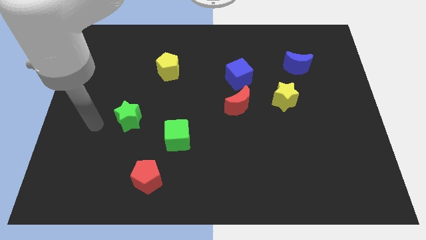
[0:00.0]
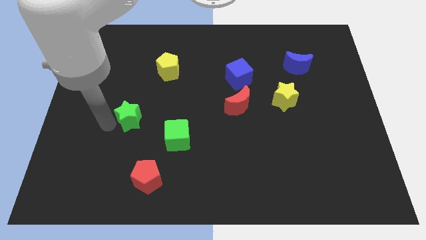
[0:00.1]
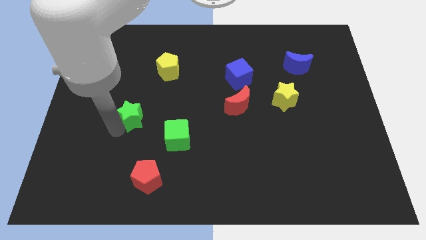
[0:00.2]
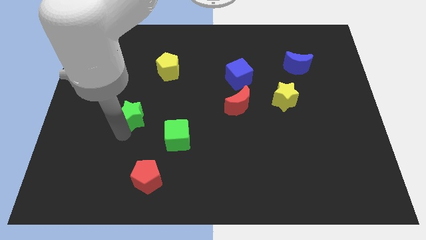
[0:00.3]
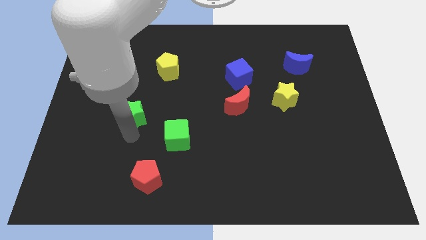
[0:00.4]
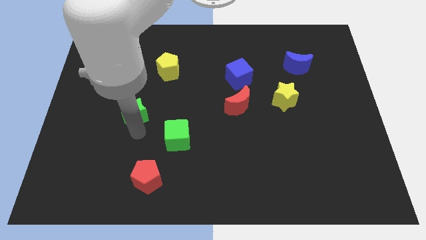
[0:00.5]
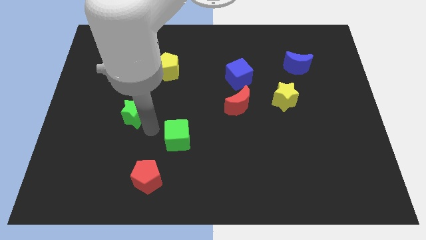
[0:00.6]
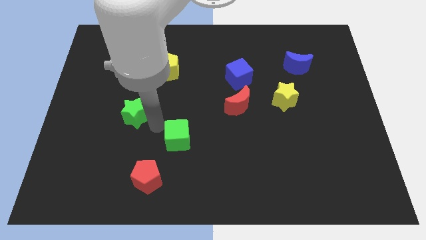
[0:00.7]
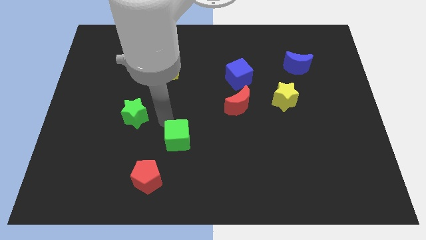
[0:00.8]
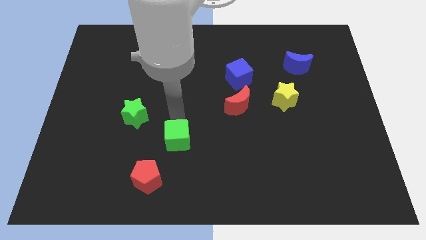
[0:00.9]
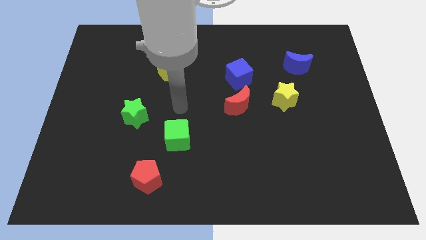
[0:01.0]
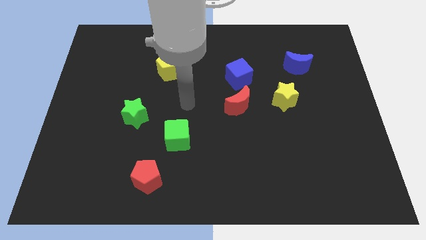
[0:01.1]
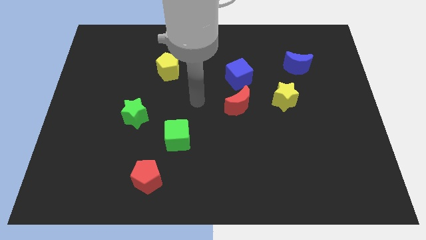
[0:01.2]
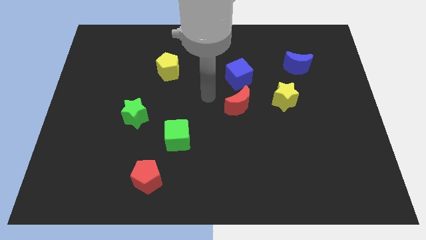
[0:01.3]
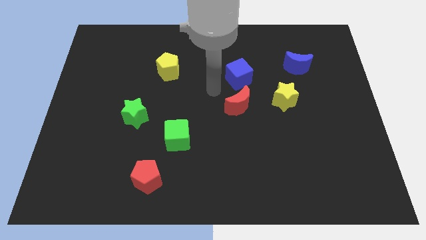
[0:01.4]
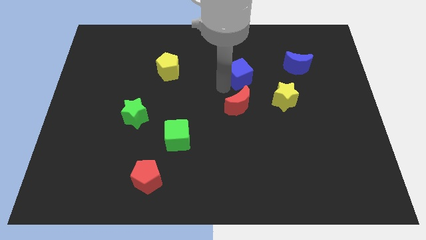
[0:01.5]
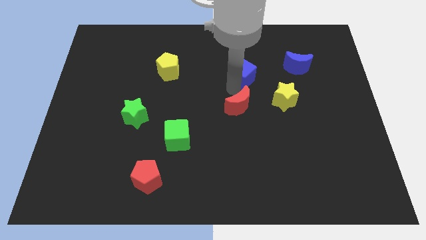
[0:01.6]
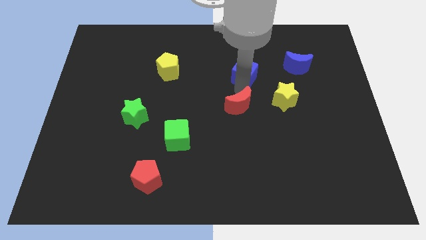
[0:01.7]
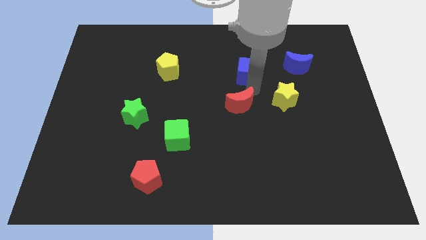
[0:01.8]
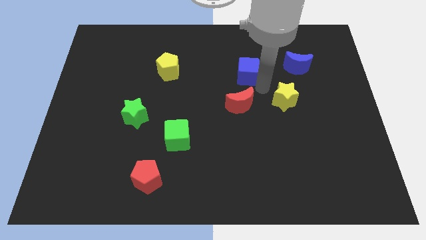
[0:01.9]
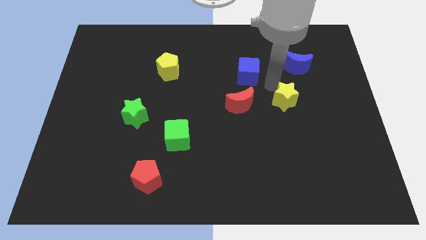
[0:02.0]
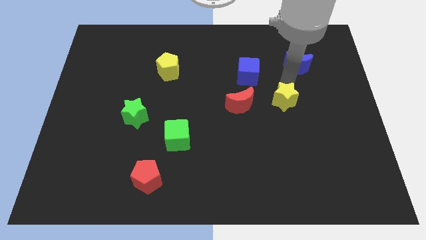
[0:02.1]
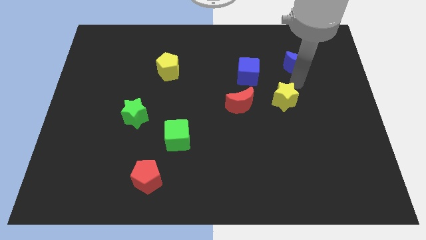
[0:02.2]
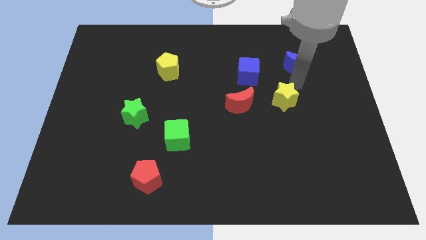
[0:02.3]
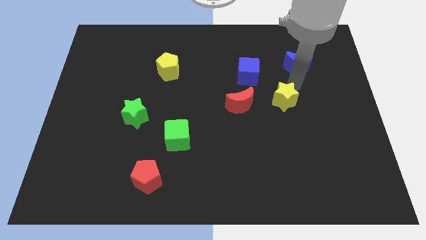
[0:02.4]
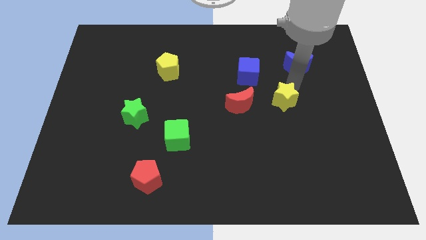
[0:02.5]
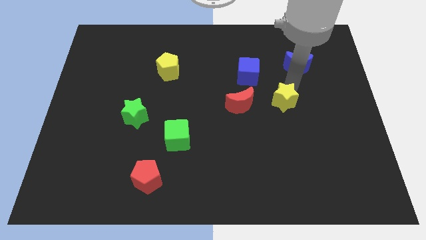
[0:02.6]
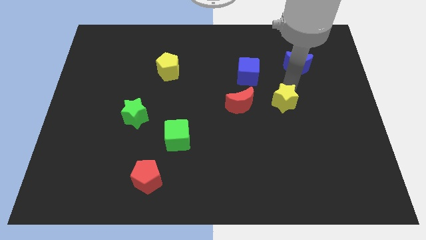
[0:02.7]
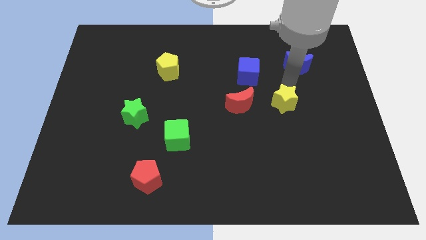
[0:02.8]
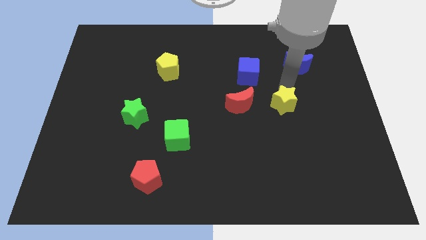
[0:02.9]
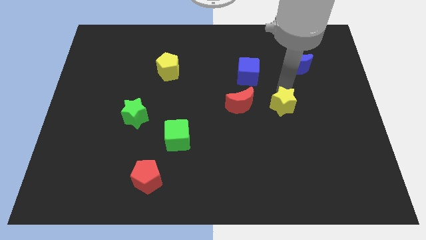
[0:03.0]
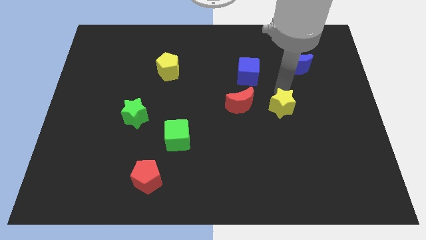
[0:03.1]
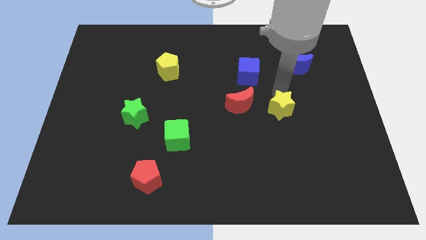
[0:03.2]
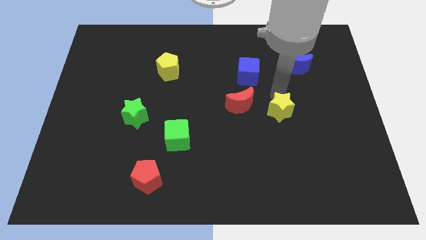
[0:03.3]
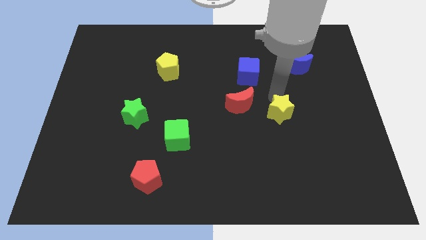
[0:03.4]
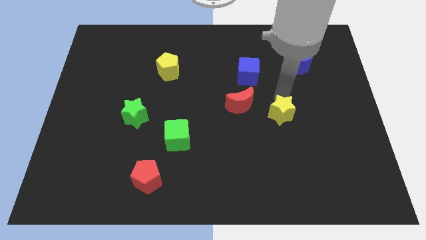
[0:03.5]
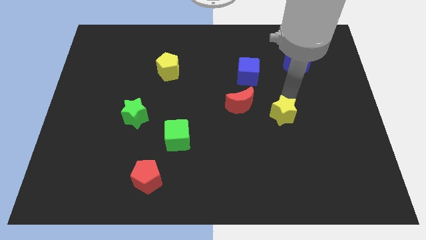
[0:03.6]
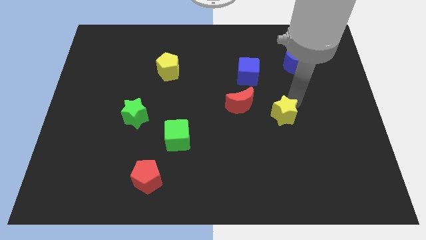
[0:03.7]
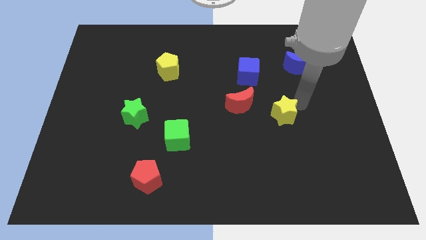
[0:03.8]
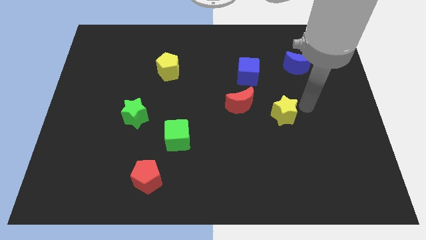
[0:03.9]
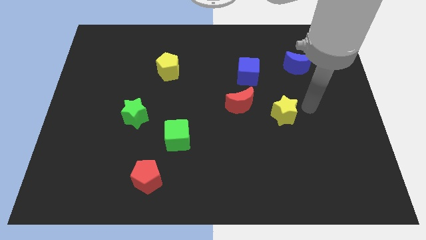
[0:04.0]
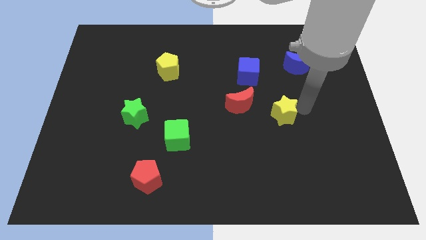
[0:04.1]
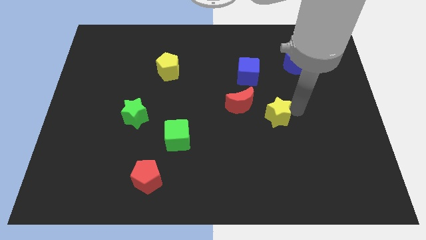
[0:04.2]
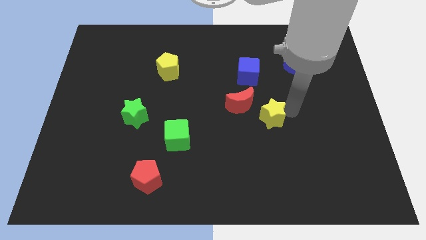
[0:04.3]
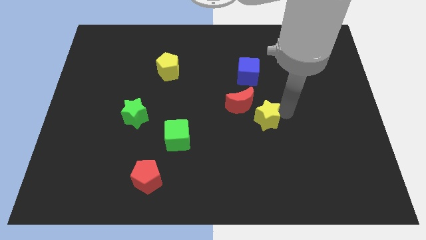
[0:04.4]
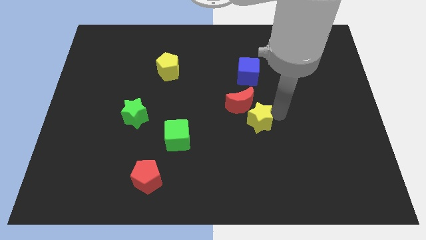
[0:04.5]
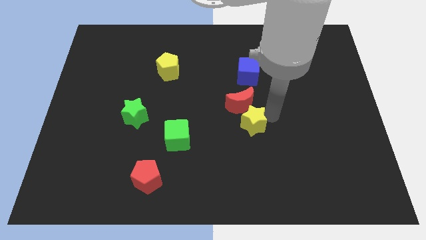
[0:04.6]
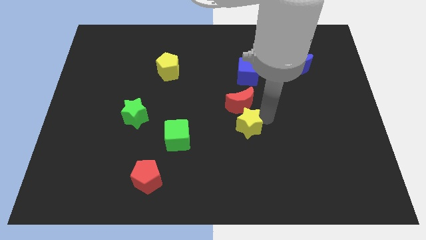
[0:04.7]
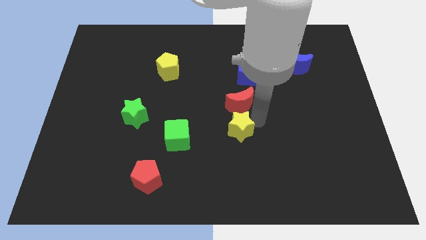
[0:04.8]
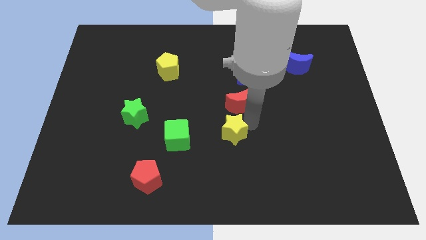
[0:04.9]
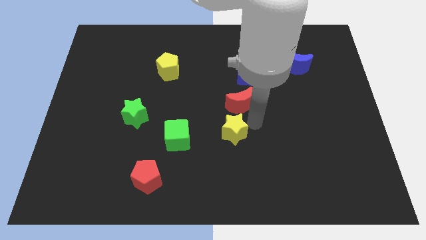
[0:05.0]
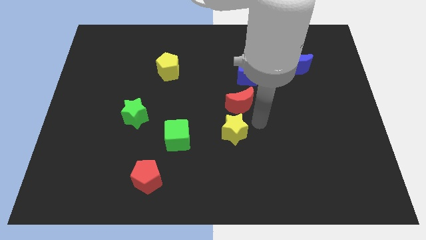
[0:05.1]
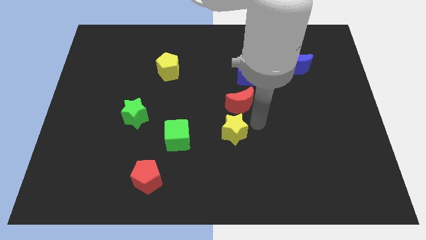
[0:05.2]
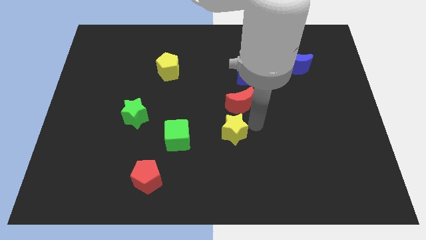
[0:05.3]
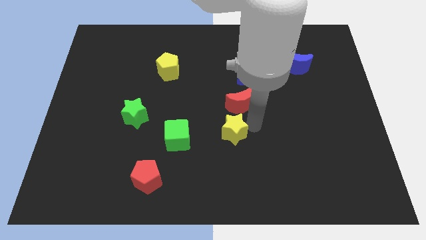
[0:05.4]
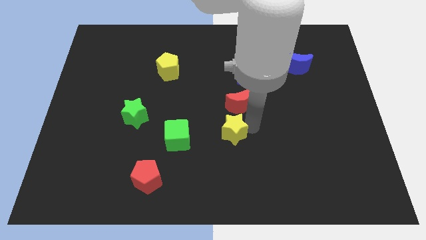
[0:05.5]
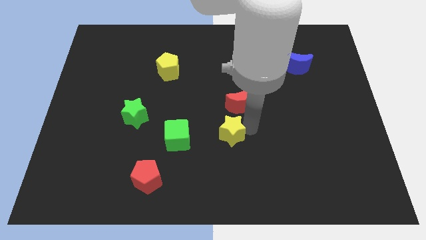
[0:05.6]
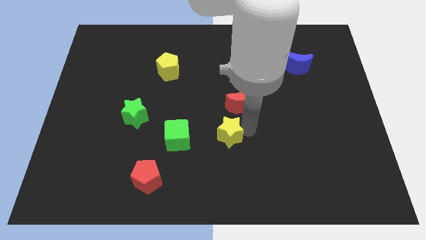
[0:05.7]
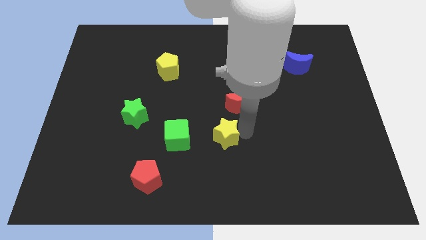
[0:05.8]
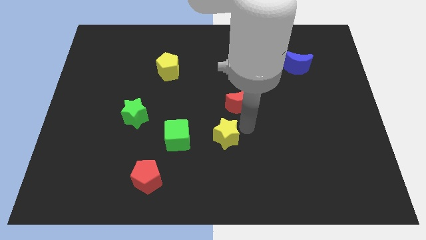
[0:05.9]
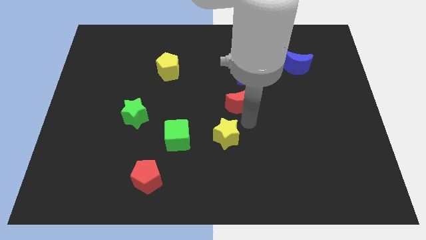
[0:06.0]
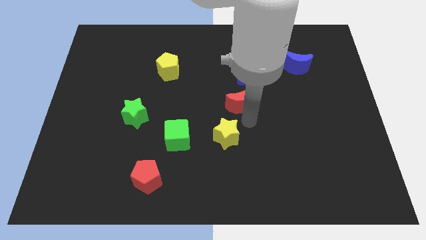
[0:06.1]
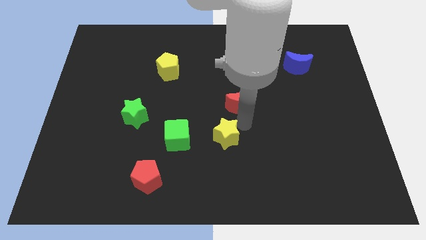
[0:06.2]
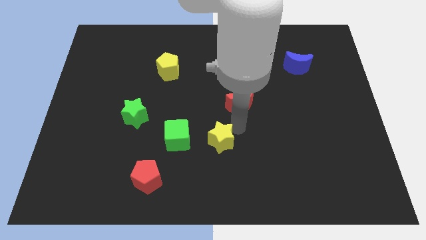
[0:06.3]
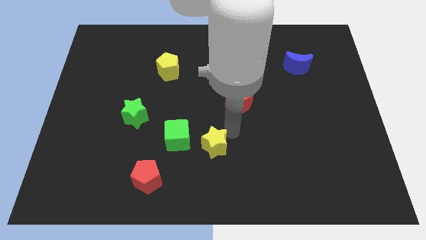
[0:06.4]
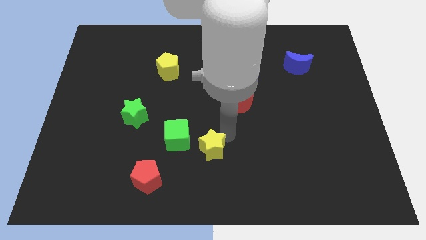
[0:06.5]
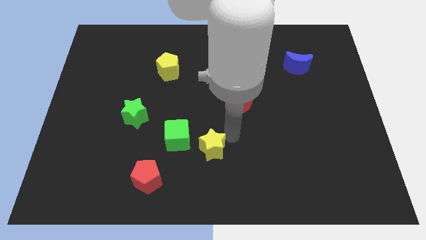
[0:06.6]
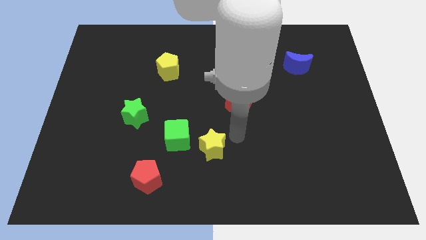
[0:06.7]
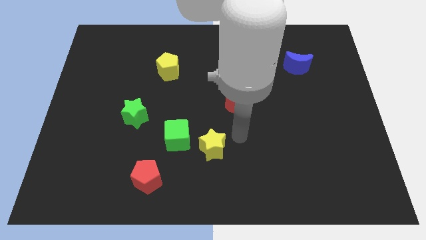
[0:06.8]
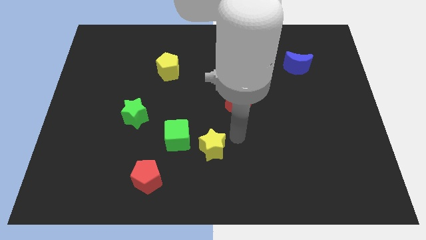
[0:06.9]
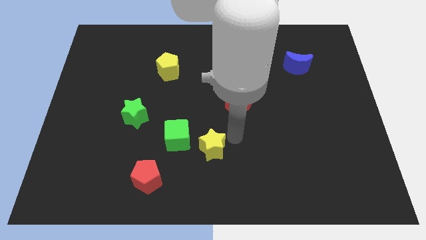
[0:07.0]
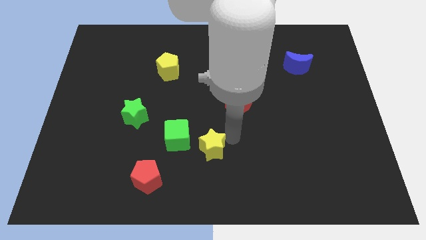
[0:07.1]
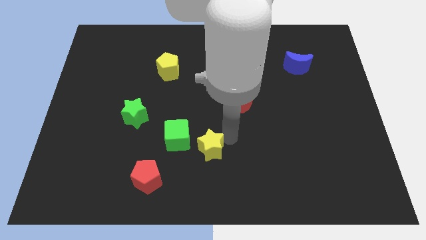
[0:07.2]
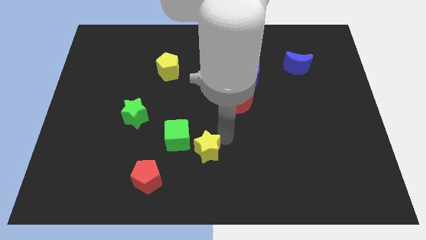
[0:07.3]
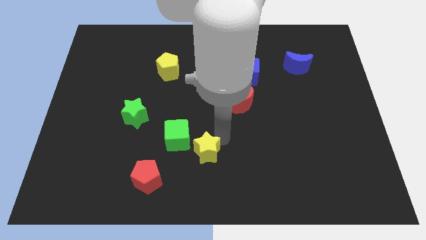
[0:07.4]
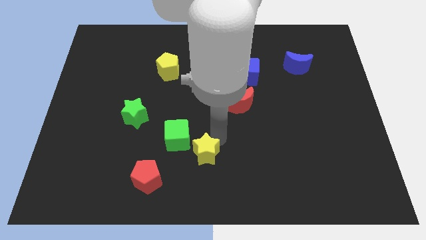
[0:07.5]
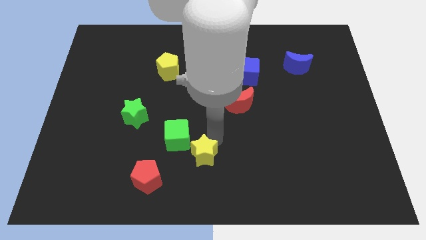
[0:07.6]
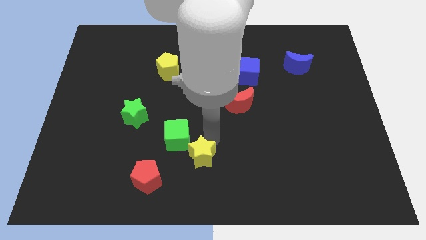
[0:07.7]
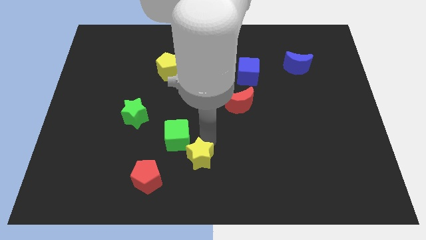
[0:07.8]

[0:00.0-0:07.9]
push the yellow star diagonally up and to the right of the red pentagon
